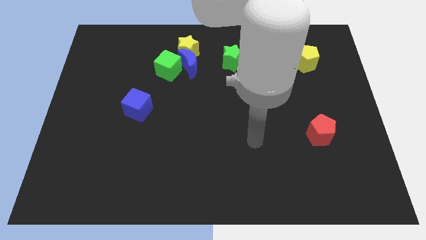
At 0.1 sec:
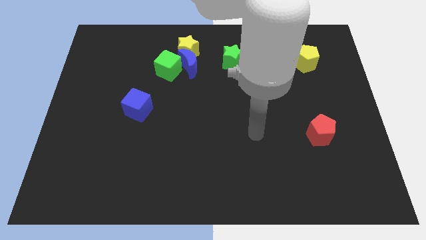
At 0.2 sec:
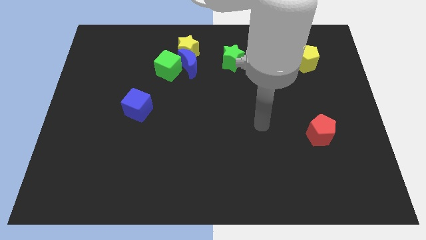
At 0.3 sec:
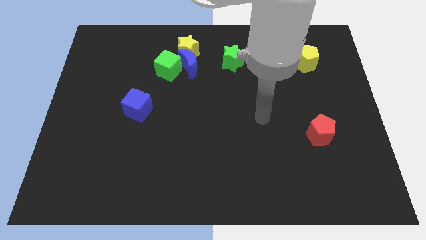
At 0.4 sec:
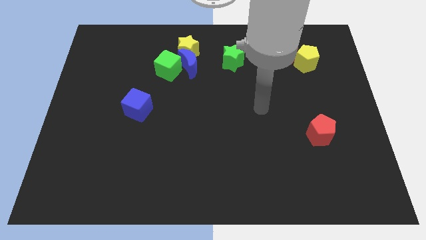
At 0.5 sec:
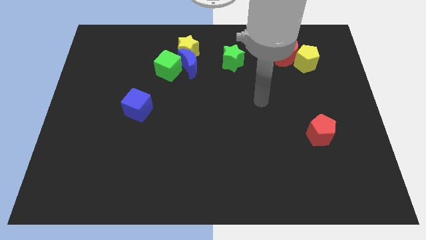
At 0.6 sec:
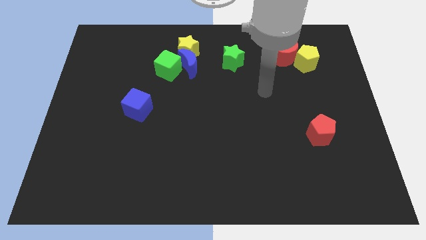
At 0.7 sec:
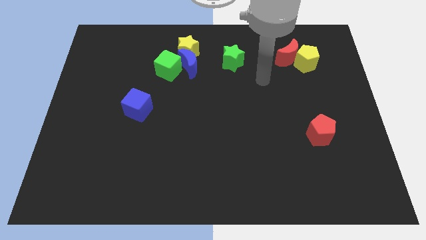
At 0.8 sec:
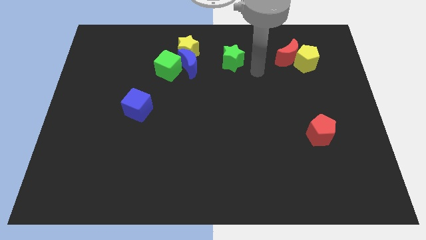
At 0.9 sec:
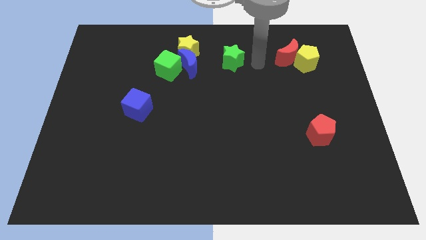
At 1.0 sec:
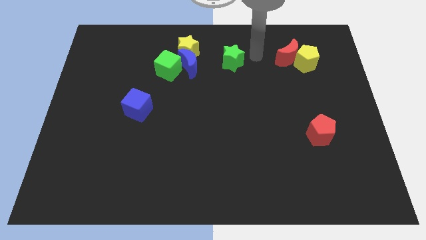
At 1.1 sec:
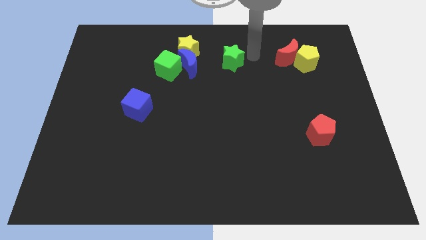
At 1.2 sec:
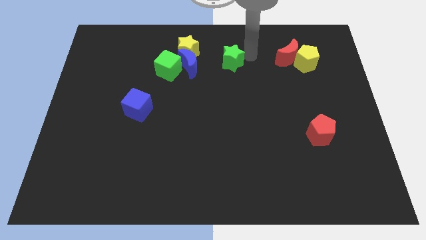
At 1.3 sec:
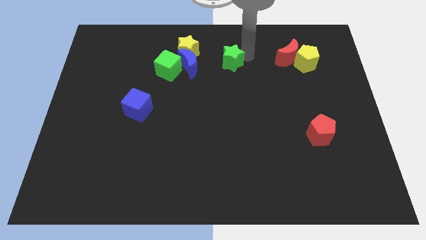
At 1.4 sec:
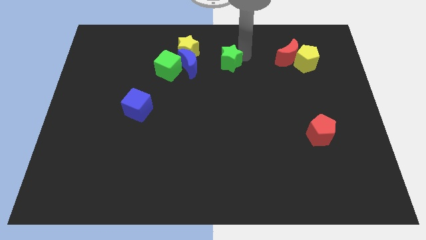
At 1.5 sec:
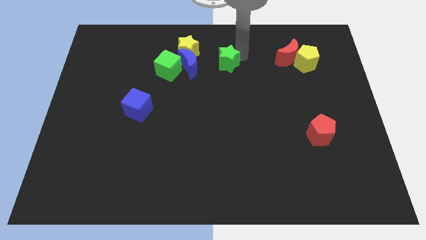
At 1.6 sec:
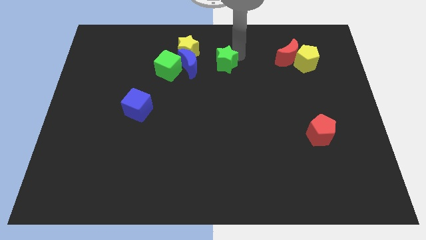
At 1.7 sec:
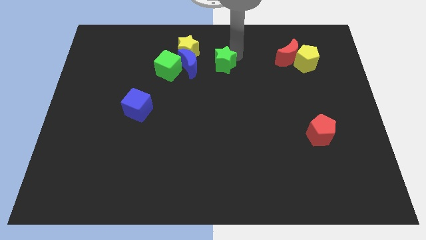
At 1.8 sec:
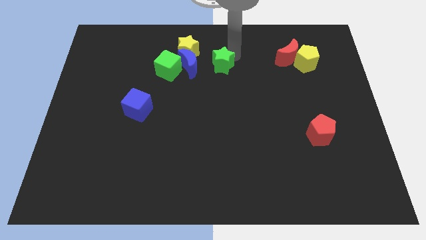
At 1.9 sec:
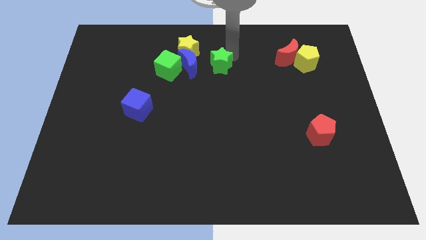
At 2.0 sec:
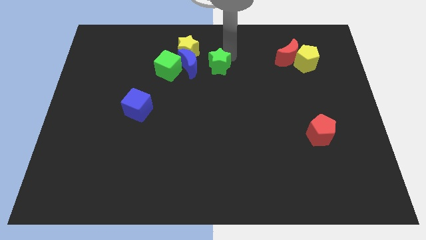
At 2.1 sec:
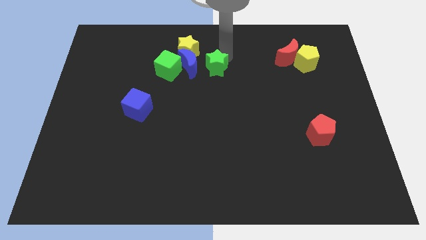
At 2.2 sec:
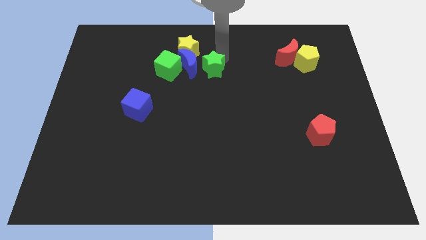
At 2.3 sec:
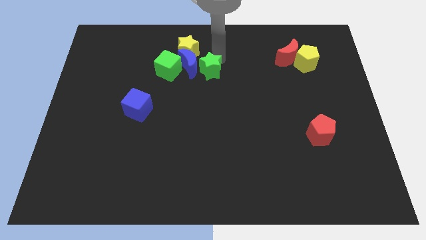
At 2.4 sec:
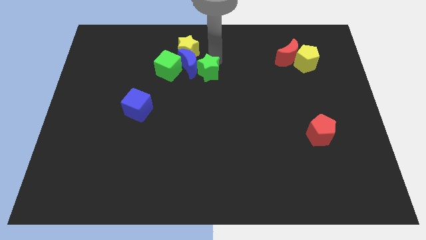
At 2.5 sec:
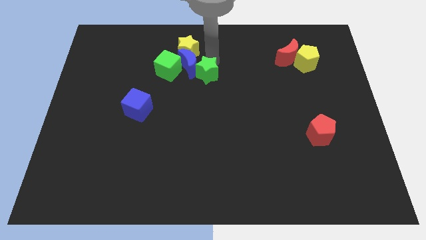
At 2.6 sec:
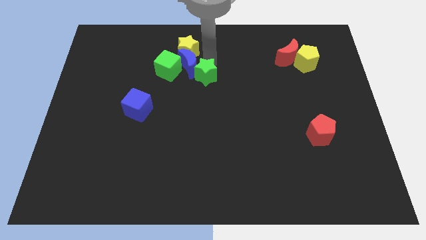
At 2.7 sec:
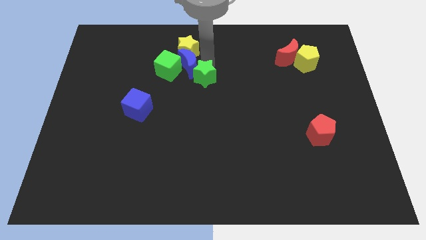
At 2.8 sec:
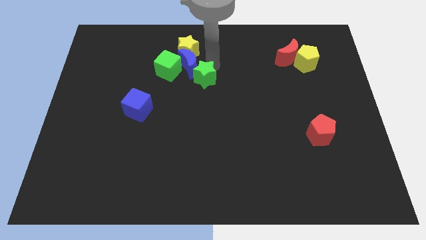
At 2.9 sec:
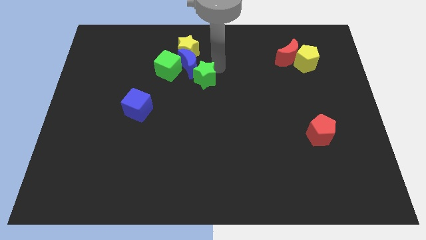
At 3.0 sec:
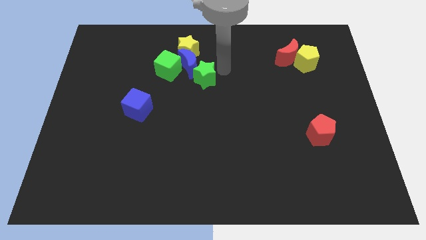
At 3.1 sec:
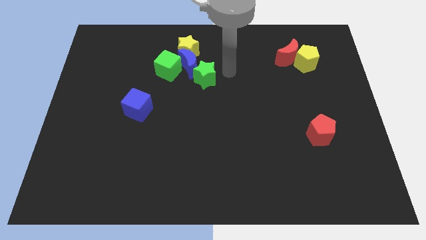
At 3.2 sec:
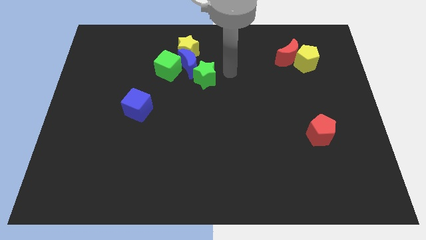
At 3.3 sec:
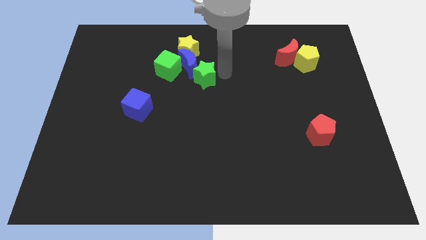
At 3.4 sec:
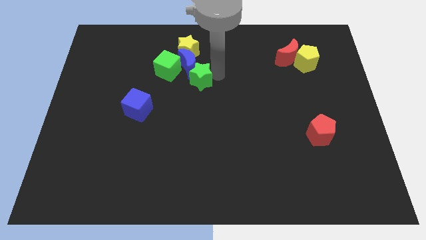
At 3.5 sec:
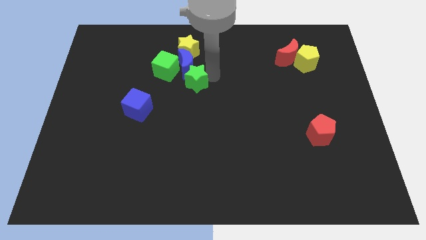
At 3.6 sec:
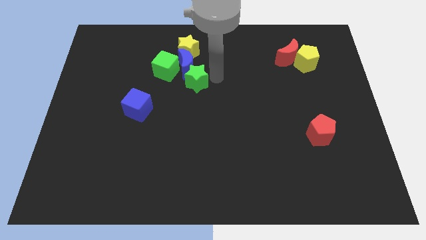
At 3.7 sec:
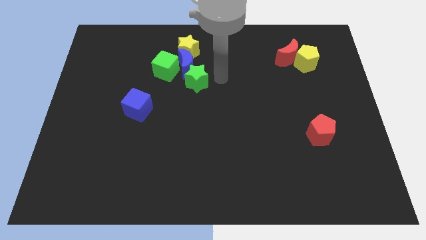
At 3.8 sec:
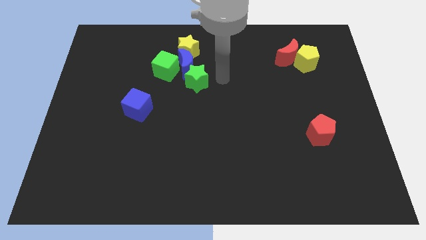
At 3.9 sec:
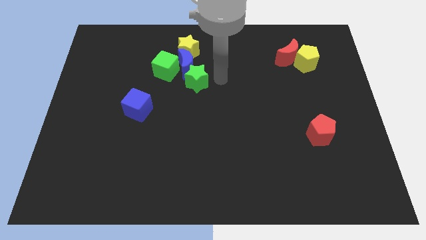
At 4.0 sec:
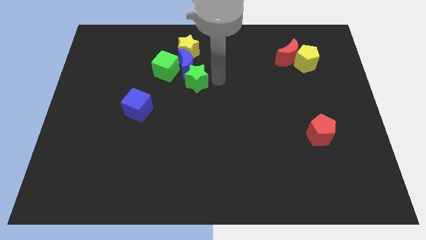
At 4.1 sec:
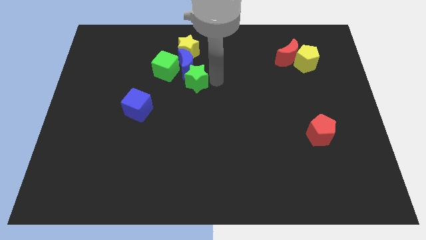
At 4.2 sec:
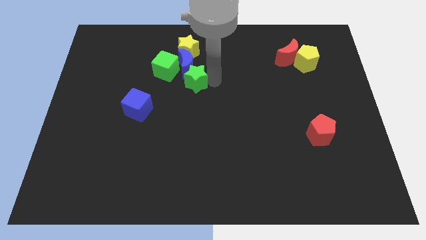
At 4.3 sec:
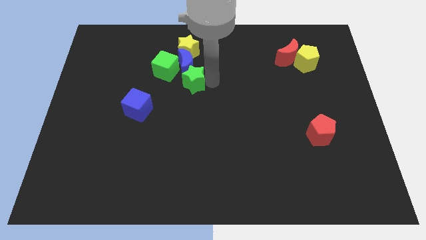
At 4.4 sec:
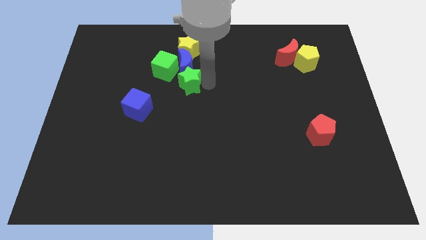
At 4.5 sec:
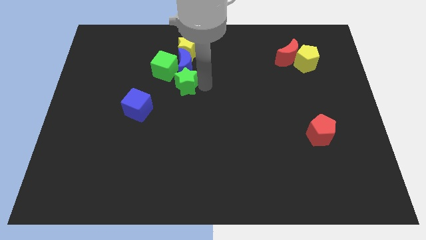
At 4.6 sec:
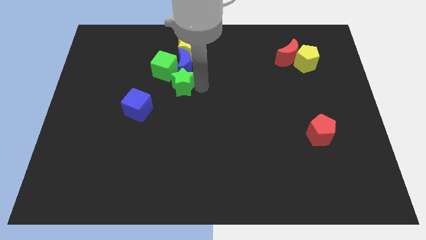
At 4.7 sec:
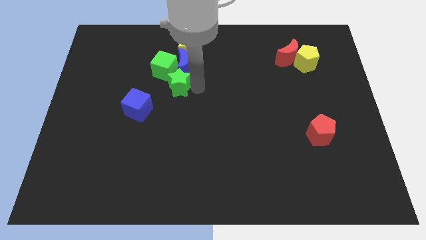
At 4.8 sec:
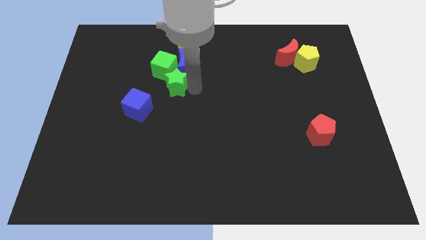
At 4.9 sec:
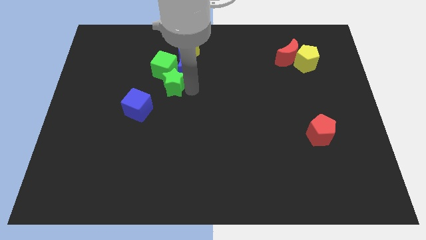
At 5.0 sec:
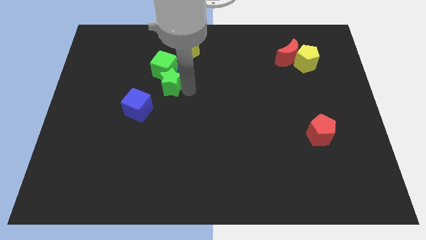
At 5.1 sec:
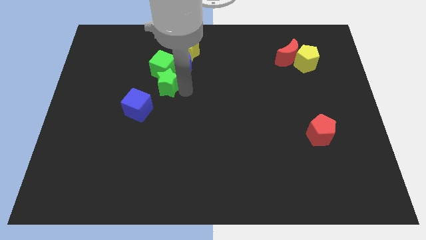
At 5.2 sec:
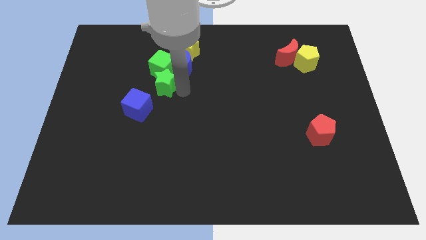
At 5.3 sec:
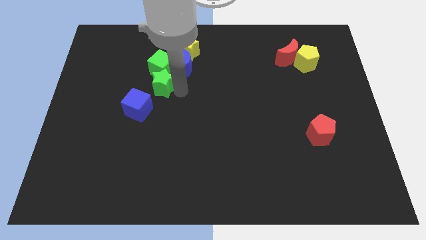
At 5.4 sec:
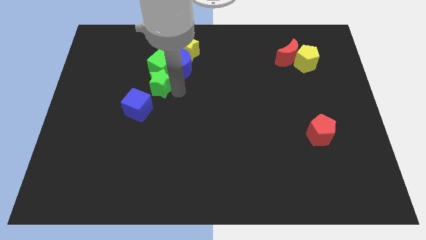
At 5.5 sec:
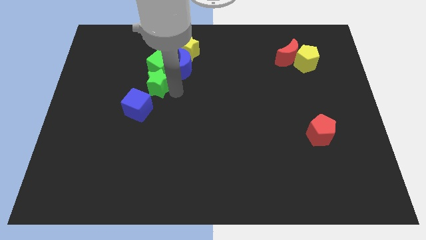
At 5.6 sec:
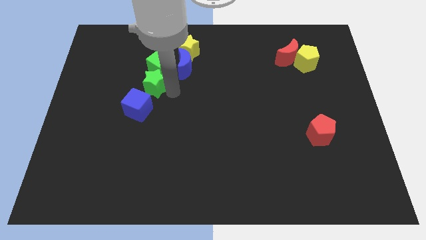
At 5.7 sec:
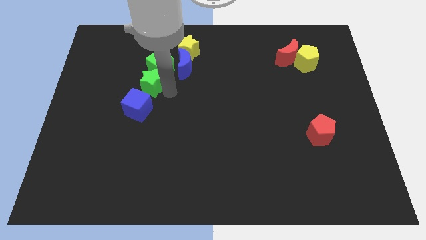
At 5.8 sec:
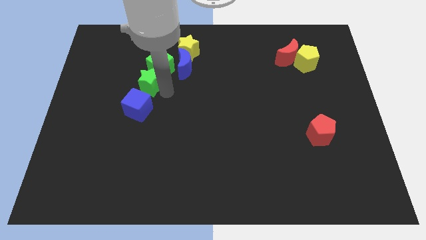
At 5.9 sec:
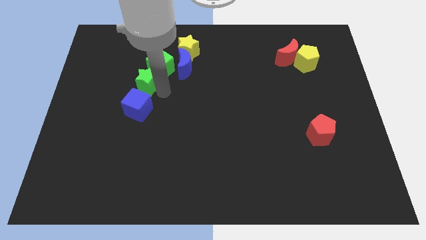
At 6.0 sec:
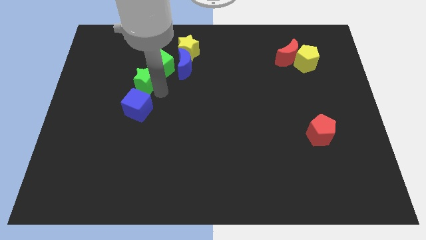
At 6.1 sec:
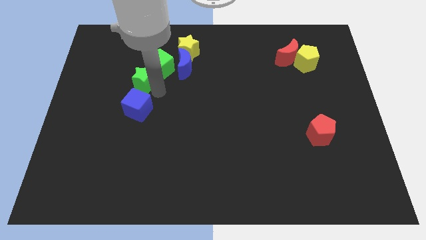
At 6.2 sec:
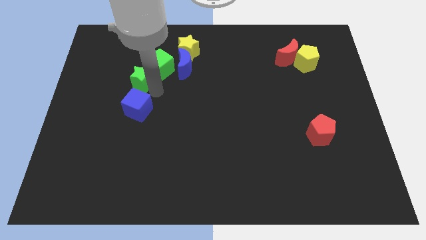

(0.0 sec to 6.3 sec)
slide the green star to the left

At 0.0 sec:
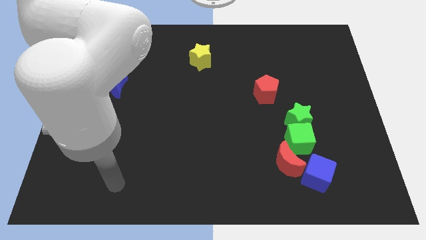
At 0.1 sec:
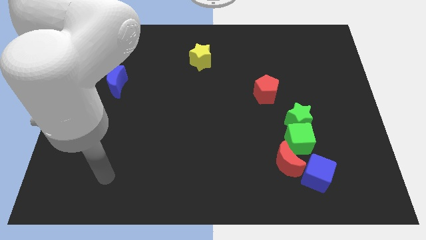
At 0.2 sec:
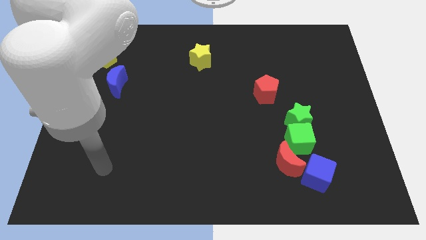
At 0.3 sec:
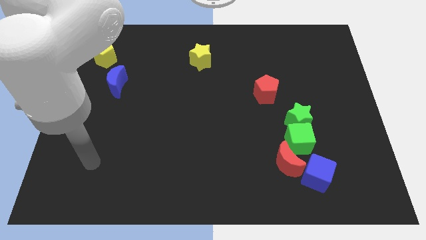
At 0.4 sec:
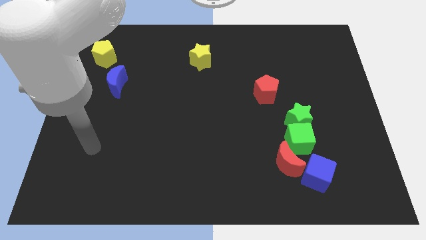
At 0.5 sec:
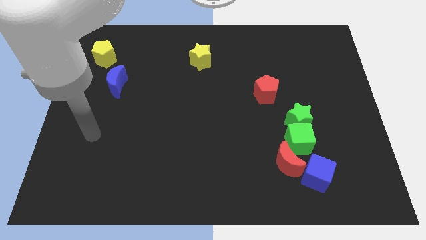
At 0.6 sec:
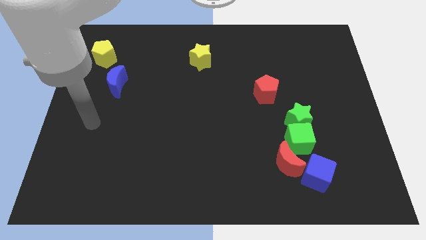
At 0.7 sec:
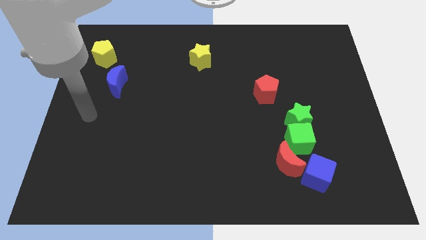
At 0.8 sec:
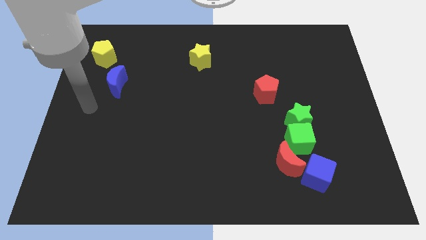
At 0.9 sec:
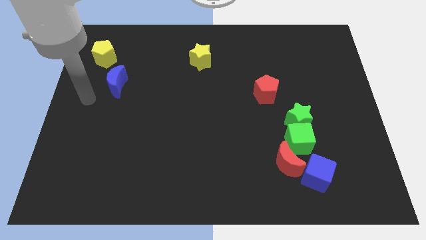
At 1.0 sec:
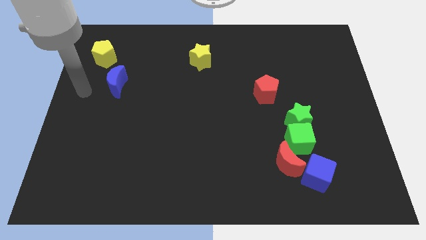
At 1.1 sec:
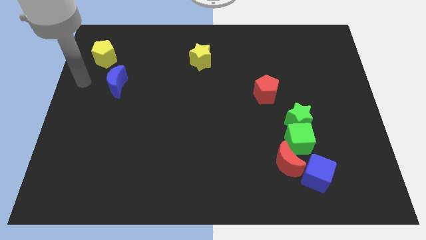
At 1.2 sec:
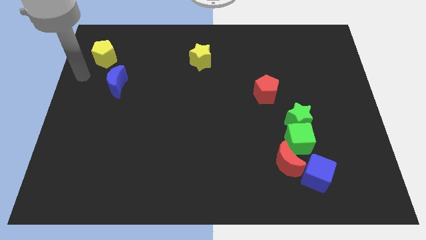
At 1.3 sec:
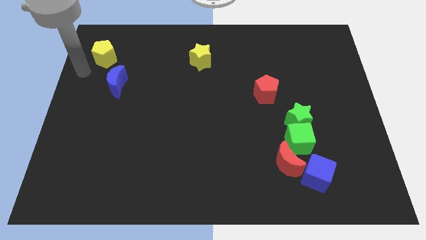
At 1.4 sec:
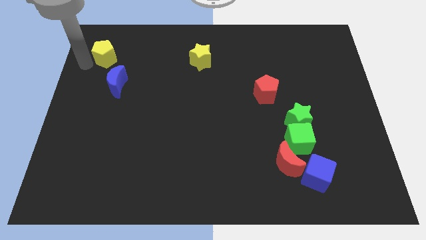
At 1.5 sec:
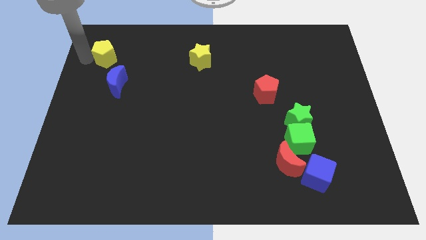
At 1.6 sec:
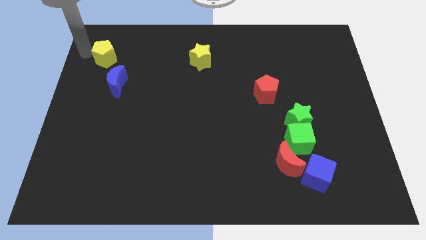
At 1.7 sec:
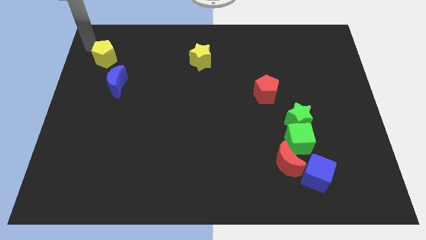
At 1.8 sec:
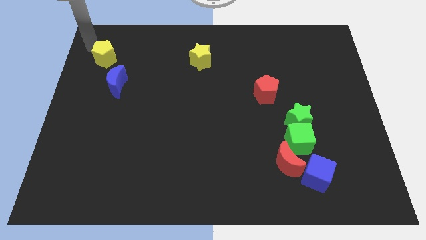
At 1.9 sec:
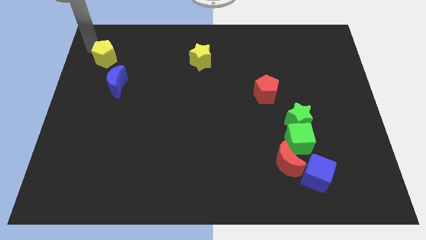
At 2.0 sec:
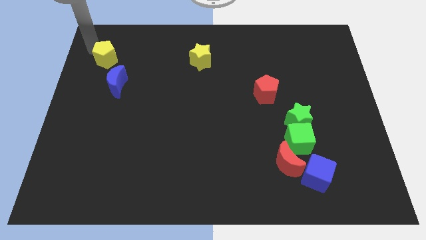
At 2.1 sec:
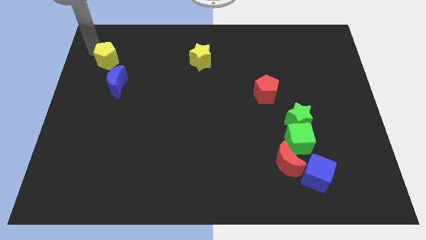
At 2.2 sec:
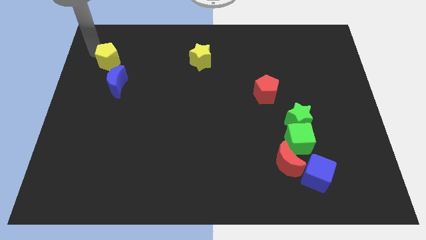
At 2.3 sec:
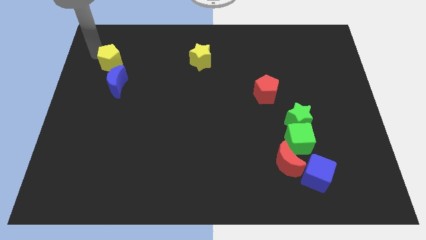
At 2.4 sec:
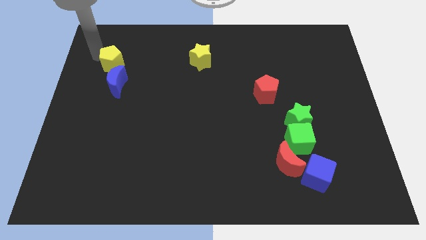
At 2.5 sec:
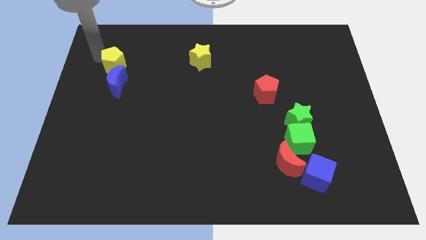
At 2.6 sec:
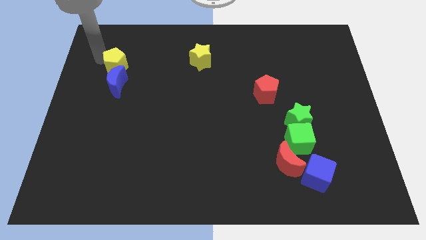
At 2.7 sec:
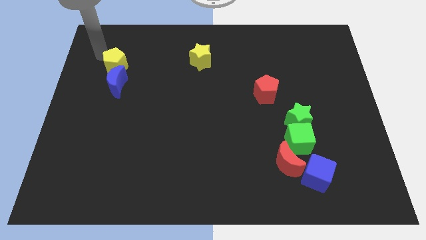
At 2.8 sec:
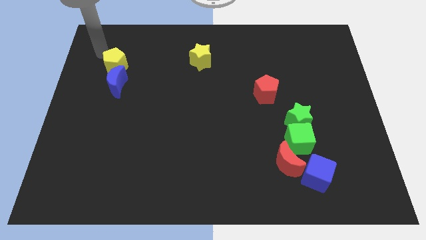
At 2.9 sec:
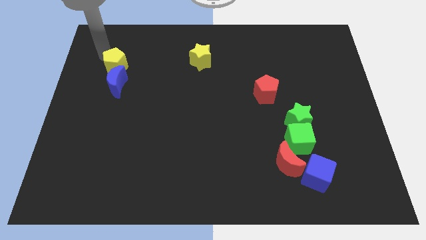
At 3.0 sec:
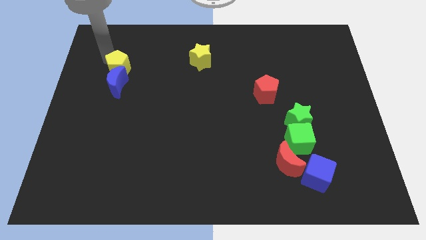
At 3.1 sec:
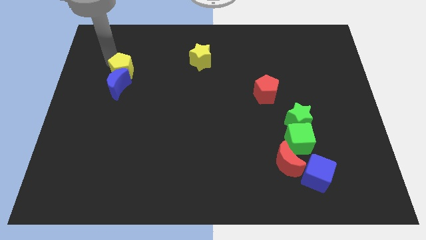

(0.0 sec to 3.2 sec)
move the yellow pentagon down and to the right diagonally somewhat
